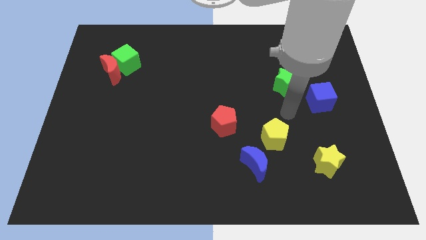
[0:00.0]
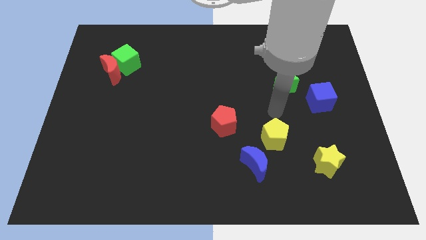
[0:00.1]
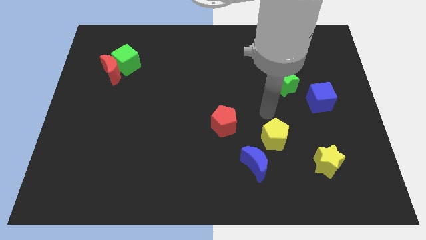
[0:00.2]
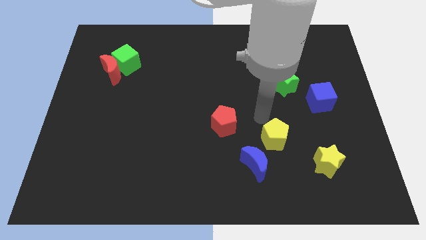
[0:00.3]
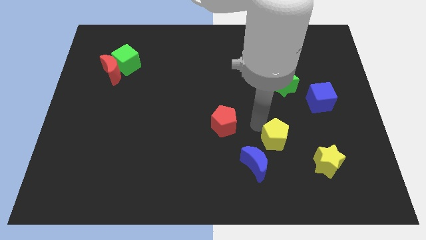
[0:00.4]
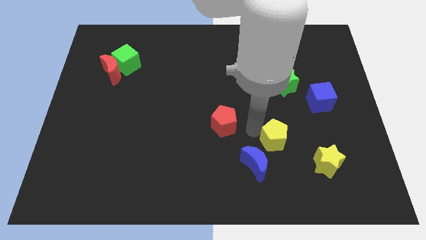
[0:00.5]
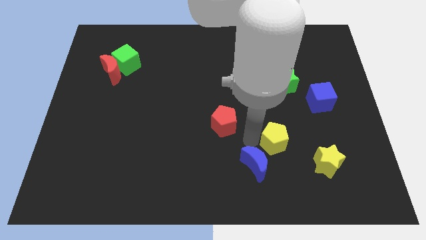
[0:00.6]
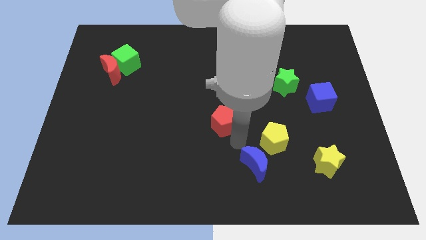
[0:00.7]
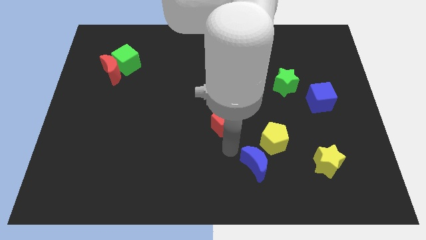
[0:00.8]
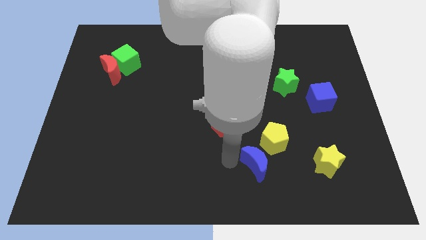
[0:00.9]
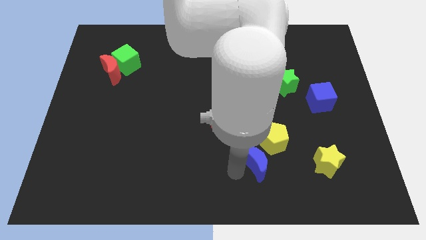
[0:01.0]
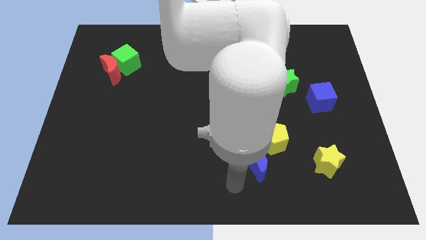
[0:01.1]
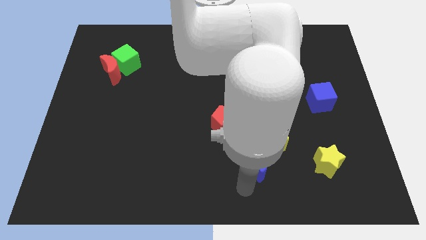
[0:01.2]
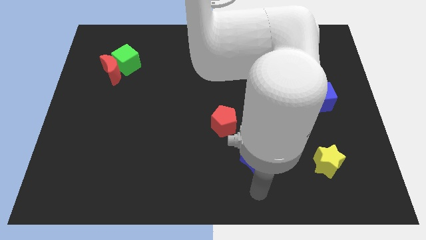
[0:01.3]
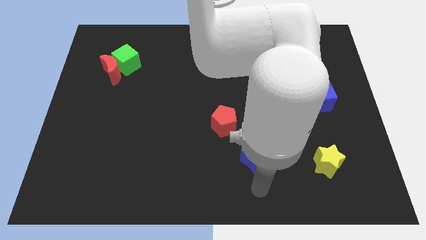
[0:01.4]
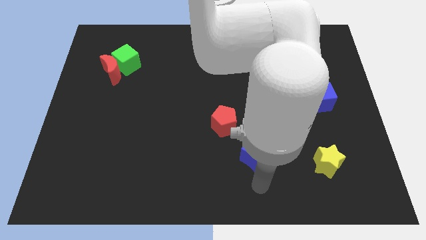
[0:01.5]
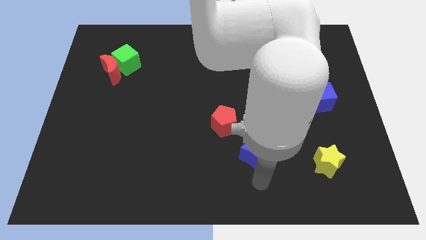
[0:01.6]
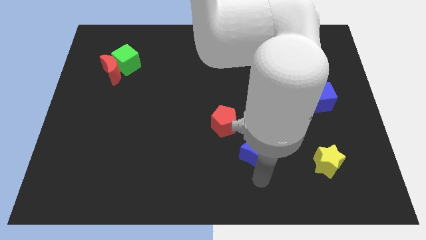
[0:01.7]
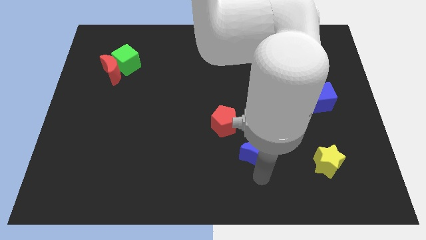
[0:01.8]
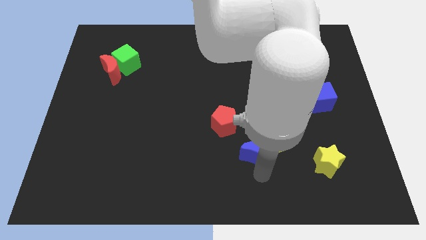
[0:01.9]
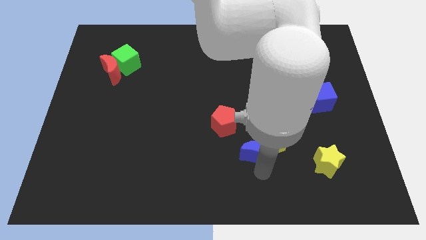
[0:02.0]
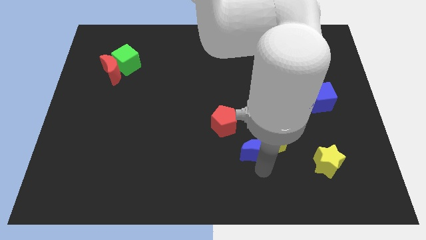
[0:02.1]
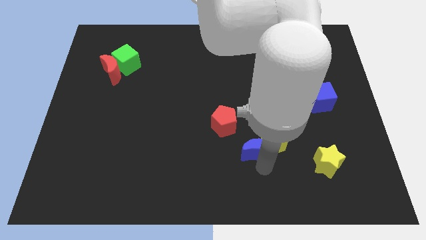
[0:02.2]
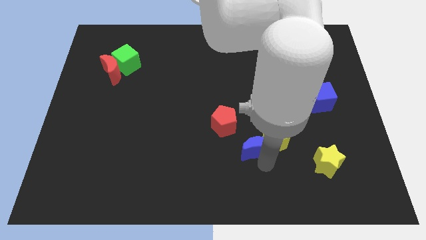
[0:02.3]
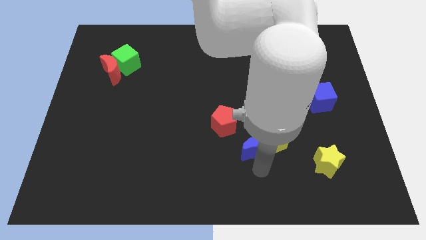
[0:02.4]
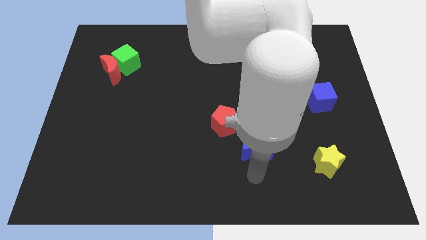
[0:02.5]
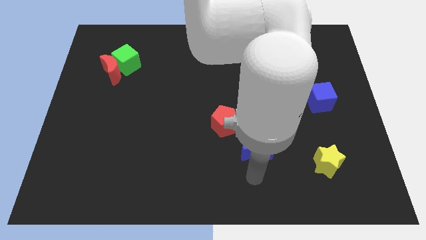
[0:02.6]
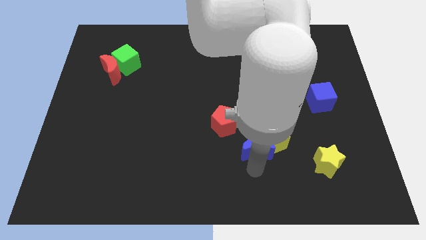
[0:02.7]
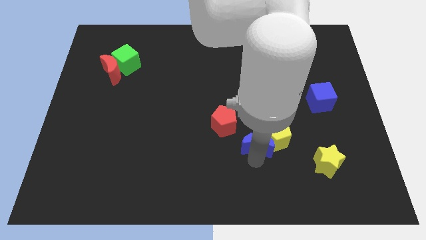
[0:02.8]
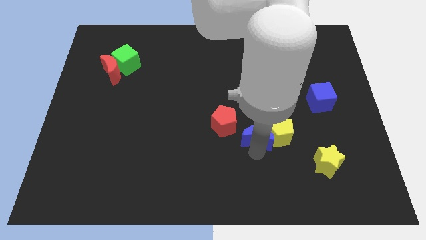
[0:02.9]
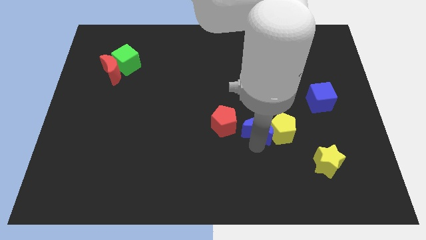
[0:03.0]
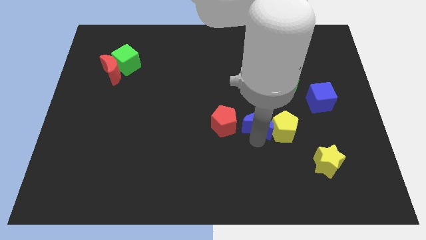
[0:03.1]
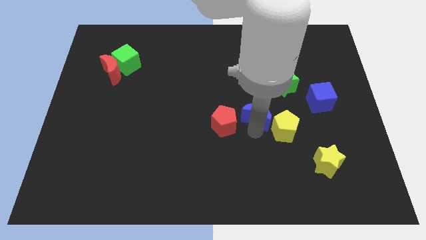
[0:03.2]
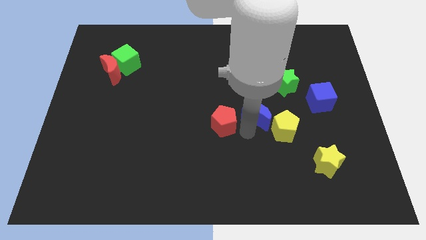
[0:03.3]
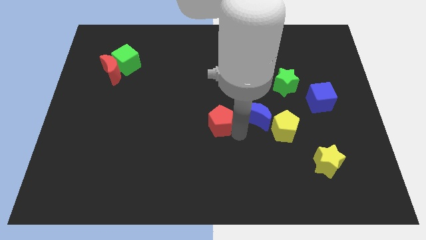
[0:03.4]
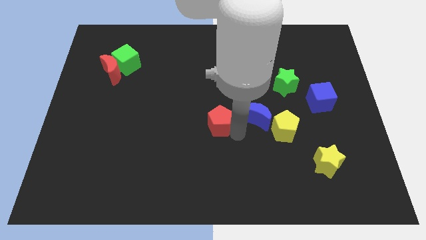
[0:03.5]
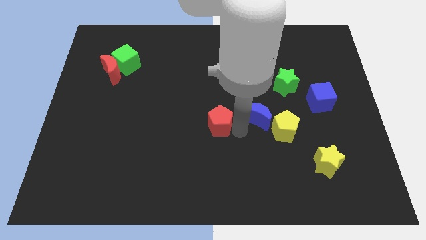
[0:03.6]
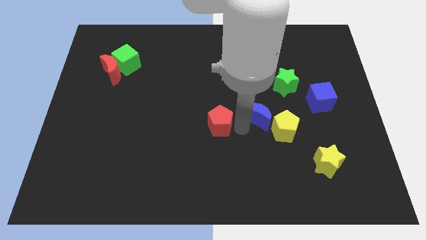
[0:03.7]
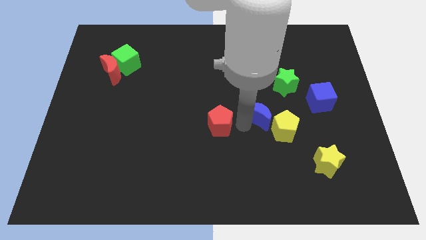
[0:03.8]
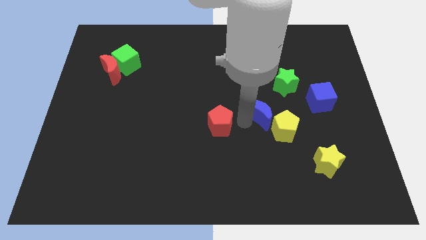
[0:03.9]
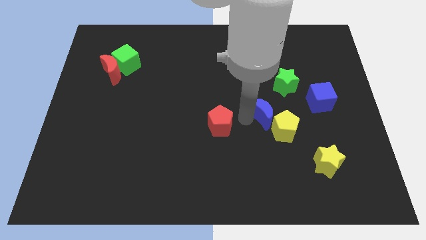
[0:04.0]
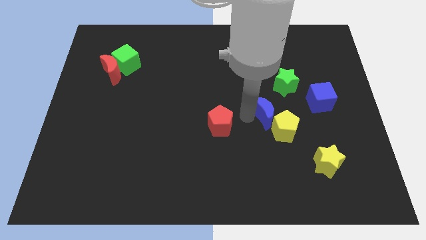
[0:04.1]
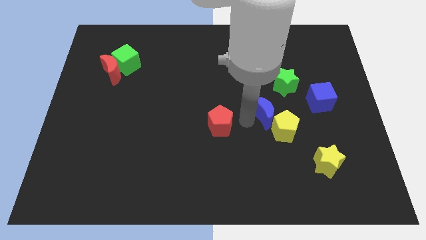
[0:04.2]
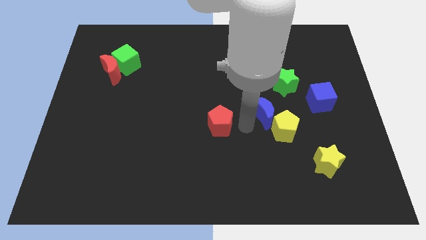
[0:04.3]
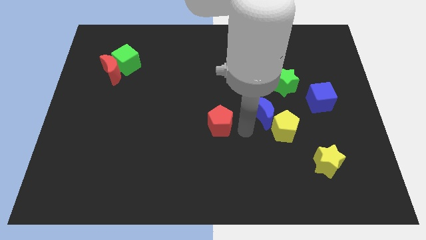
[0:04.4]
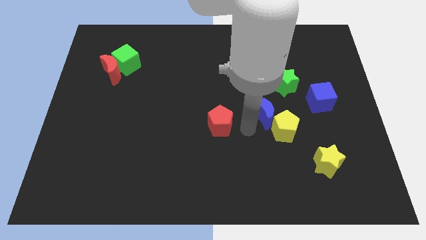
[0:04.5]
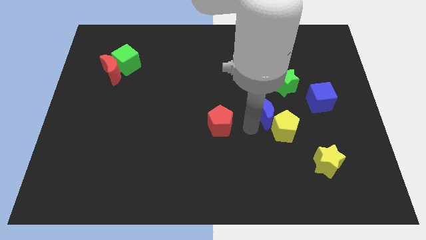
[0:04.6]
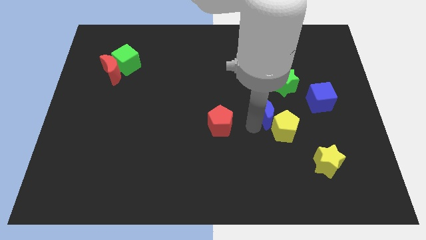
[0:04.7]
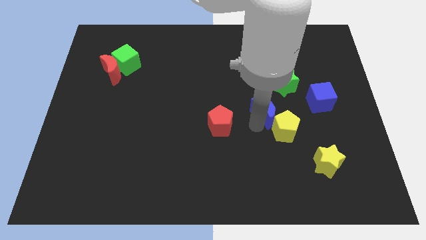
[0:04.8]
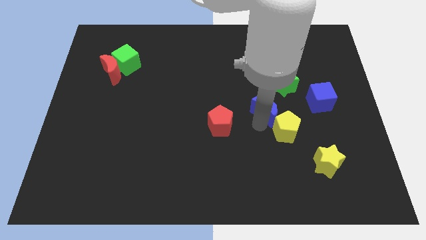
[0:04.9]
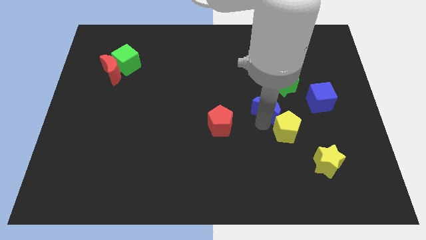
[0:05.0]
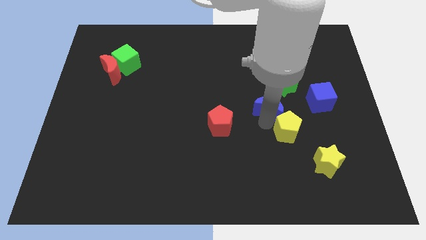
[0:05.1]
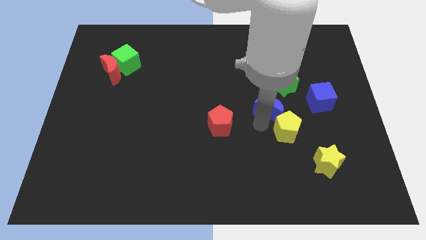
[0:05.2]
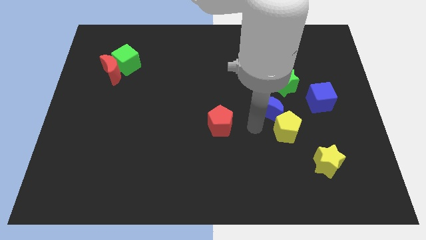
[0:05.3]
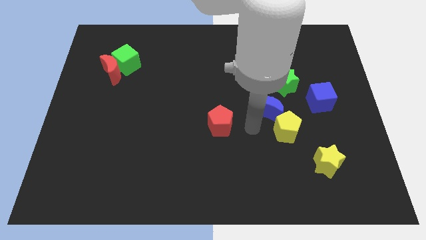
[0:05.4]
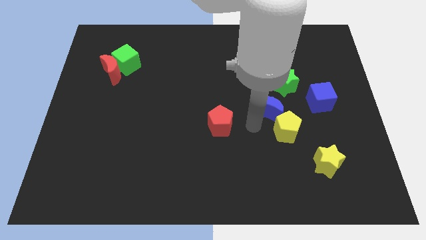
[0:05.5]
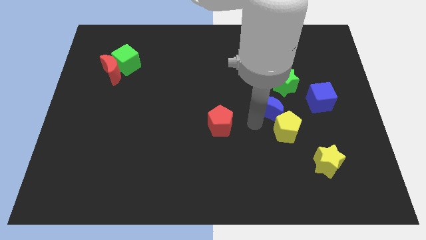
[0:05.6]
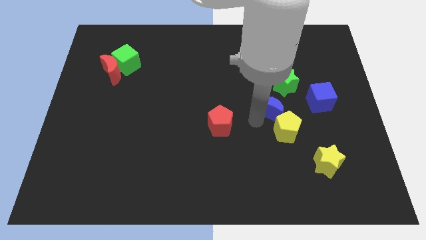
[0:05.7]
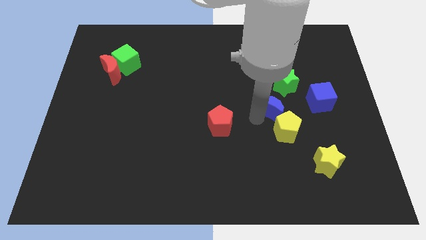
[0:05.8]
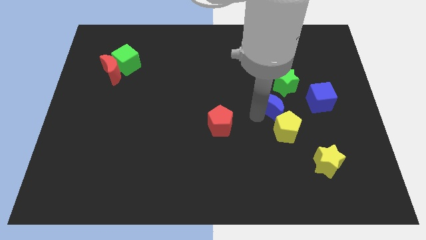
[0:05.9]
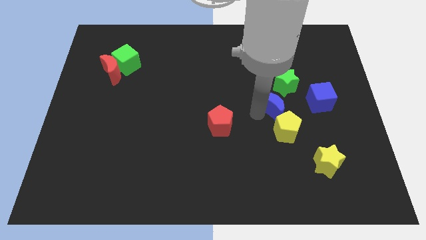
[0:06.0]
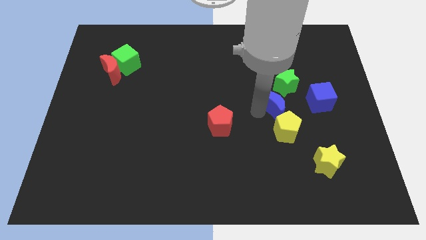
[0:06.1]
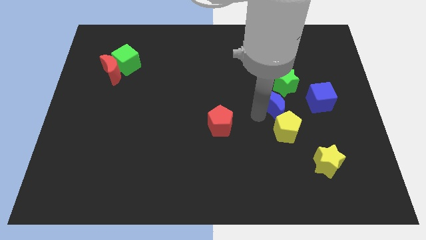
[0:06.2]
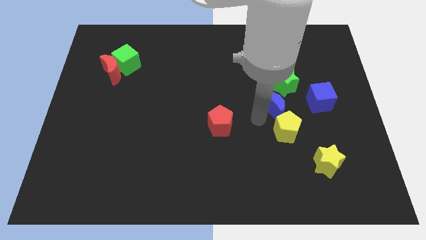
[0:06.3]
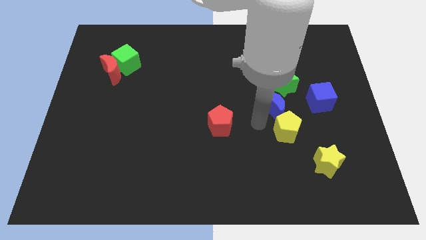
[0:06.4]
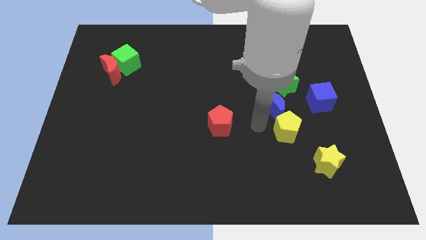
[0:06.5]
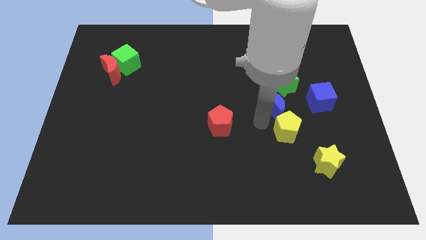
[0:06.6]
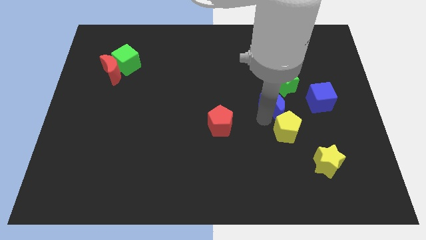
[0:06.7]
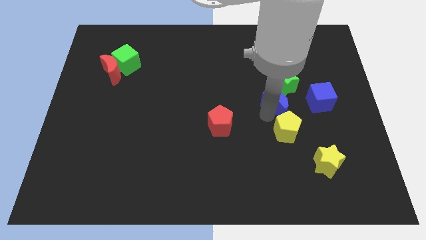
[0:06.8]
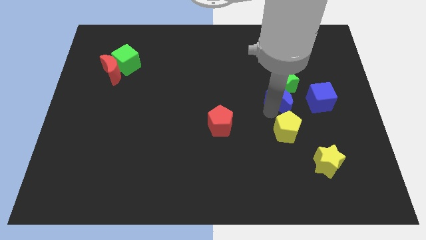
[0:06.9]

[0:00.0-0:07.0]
move the blue moon to the green star
